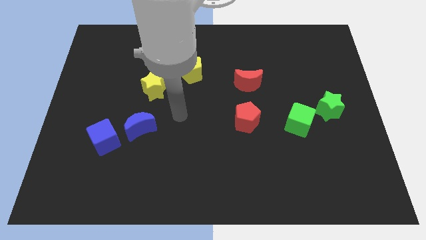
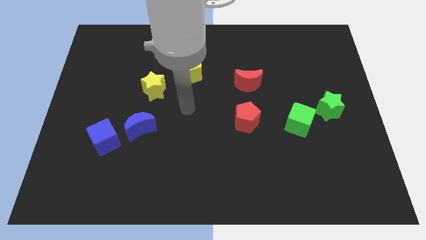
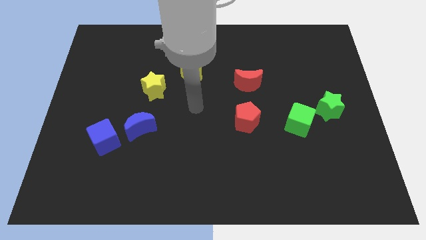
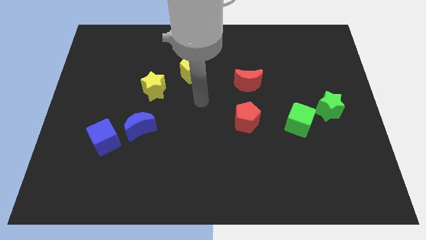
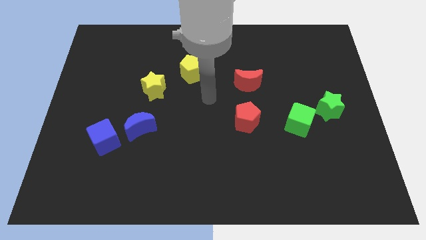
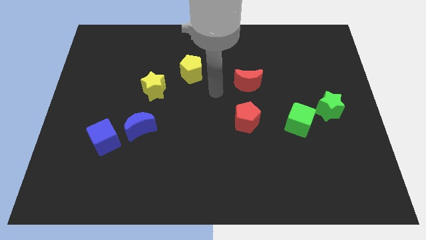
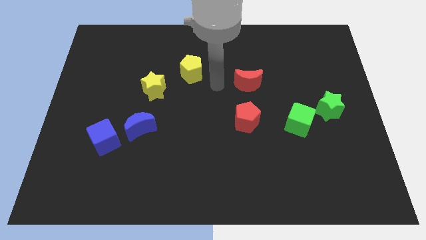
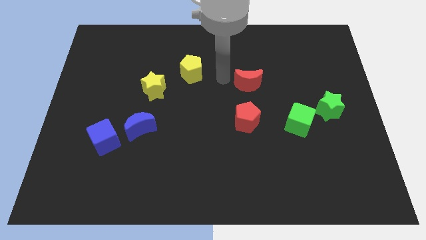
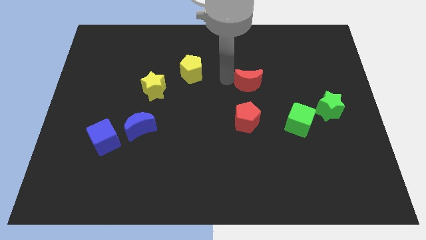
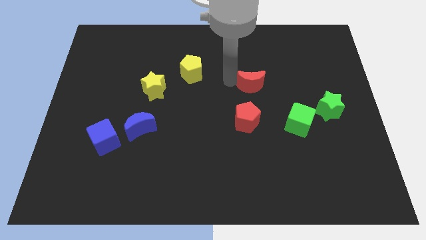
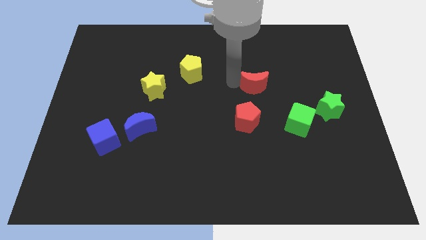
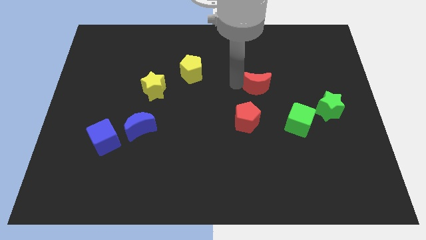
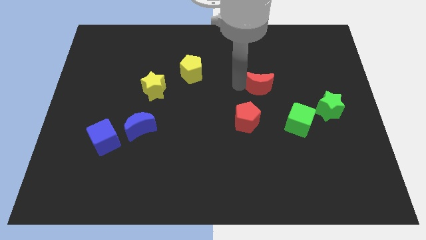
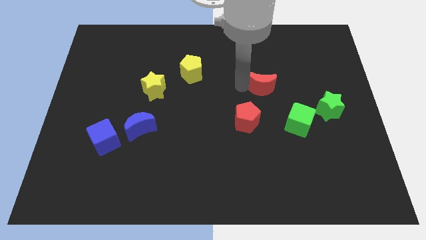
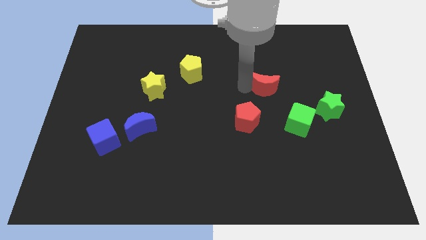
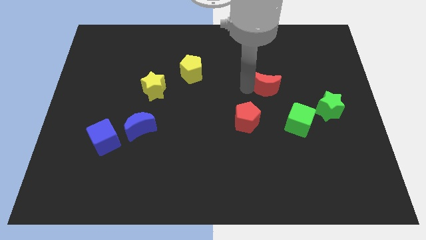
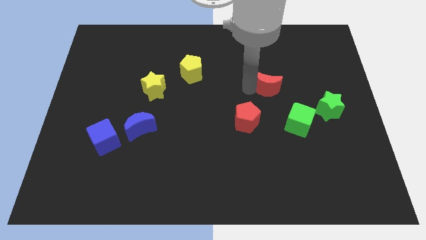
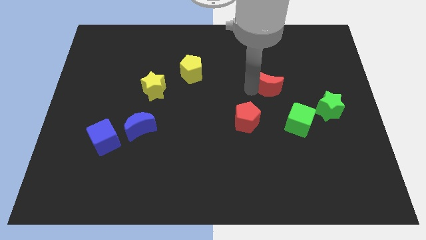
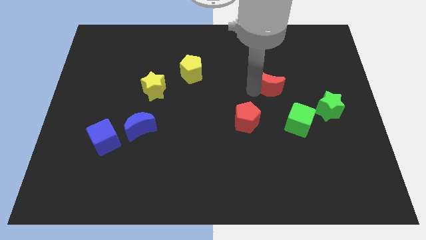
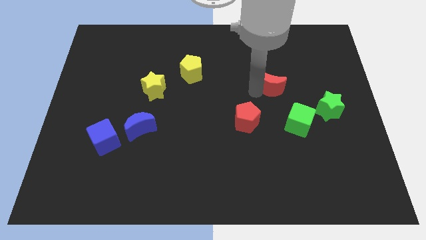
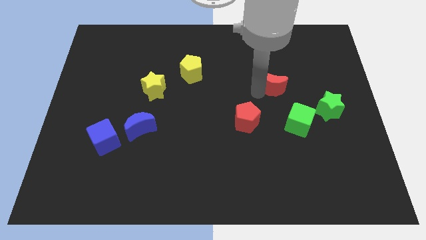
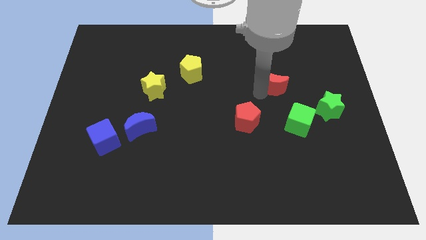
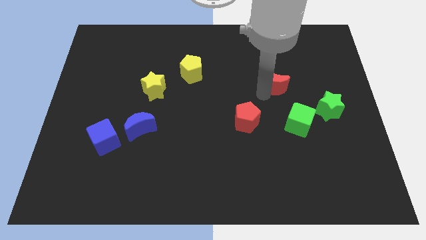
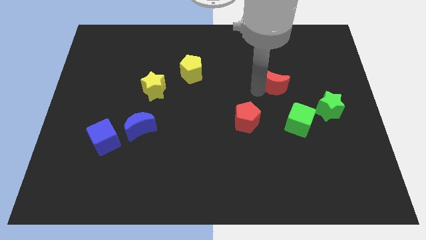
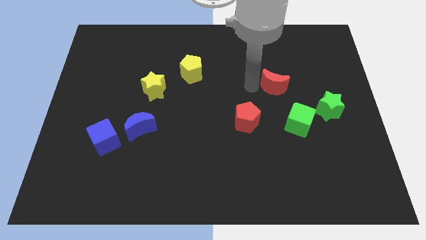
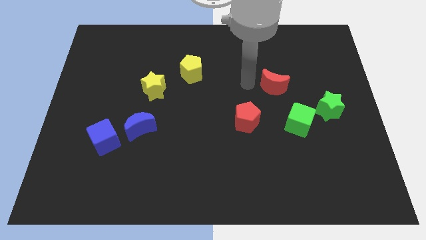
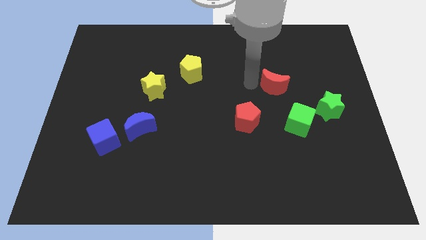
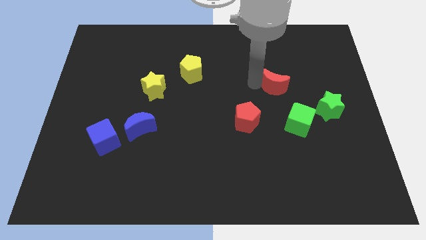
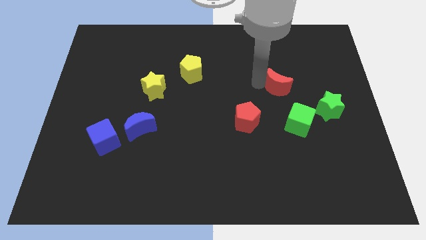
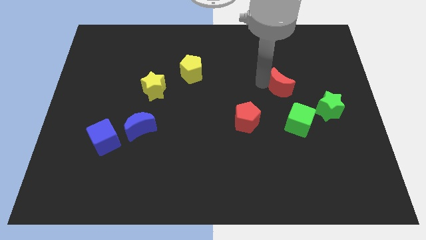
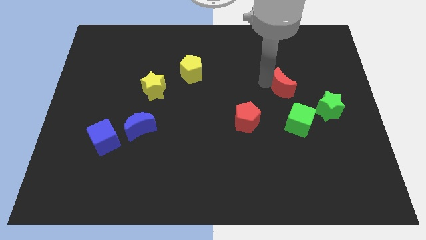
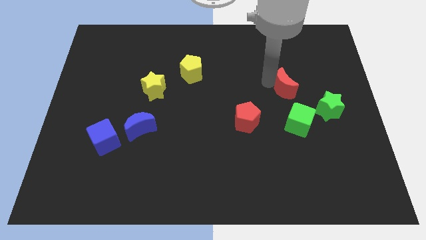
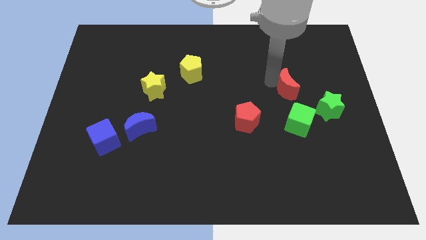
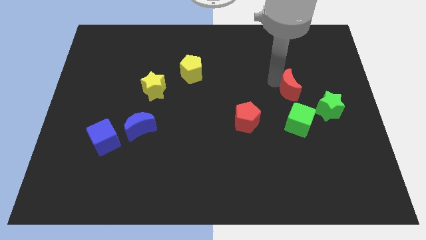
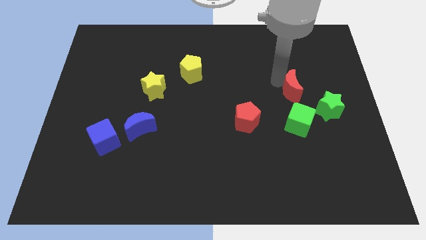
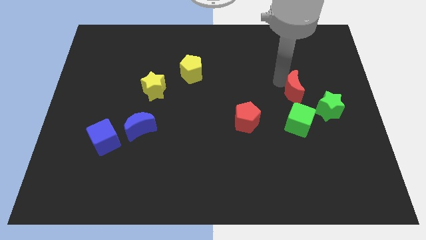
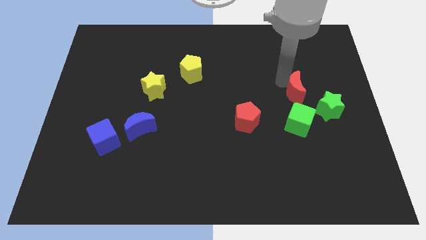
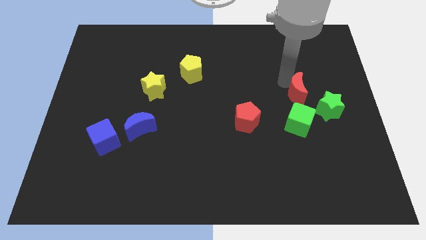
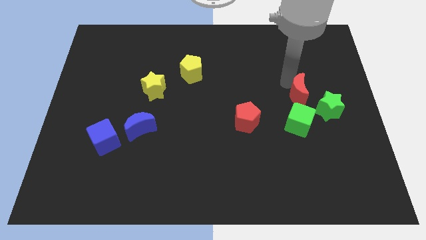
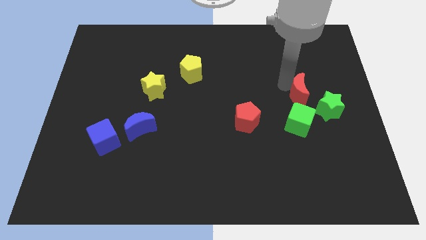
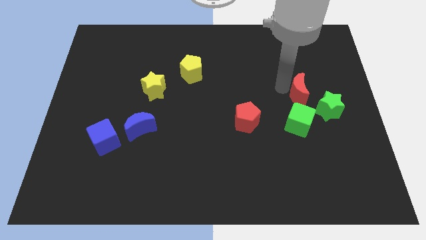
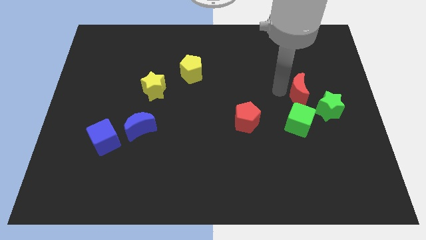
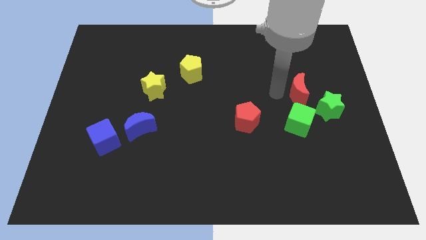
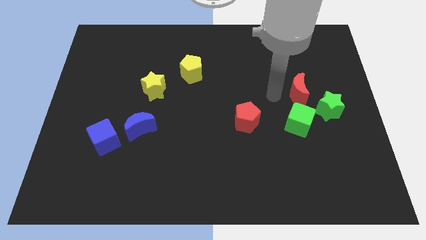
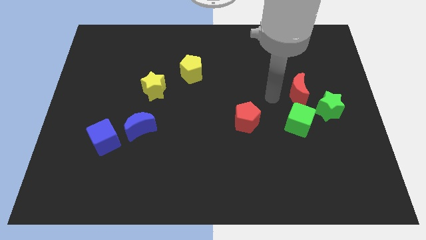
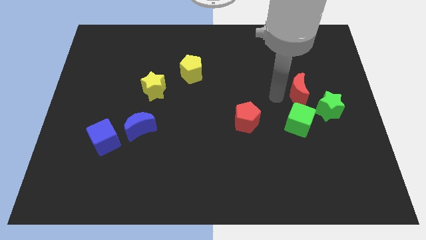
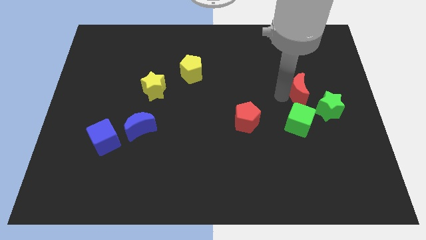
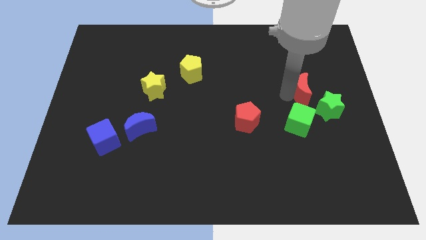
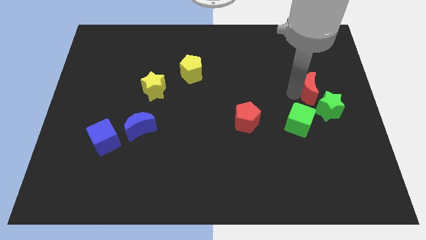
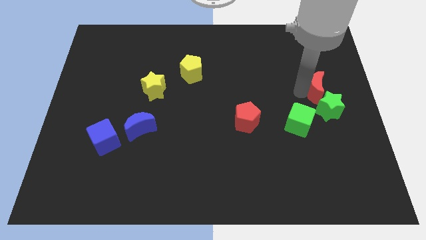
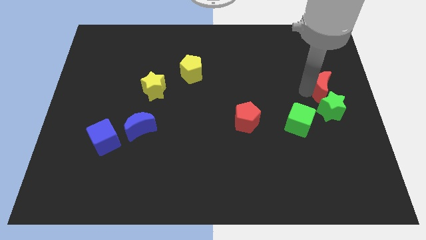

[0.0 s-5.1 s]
push the red moon to the right side

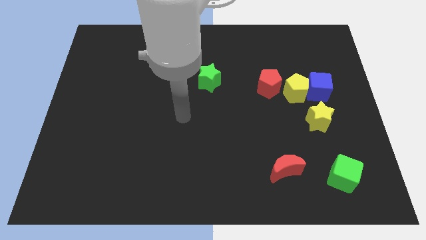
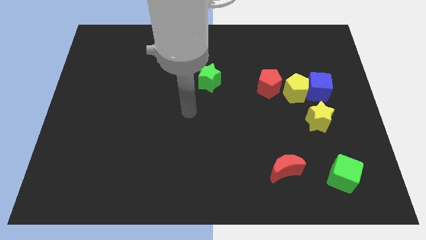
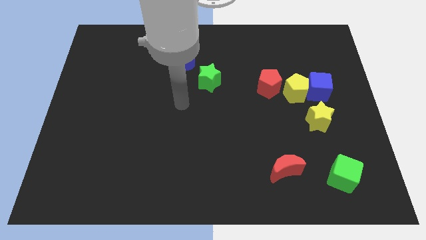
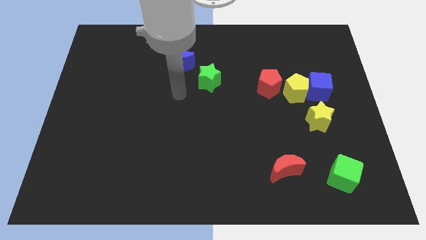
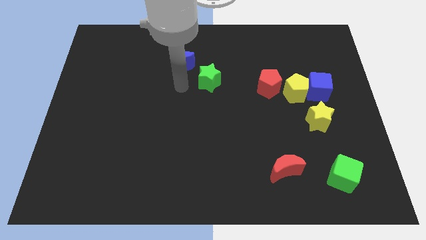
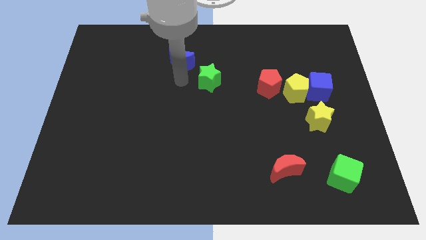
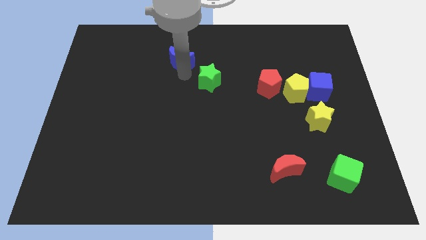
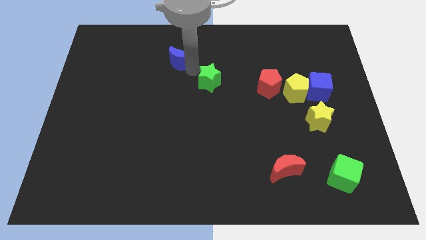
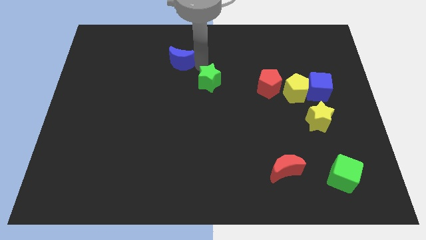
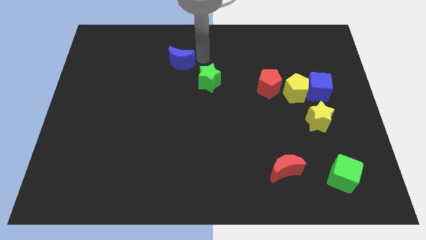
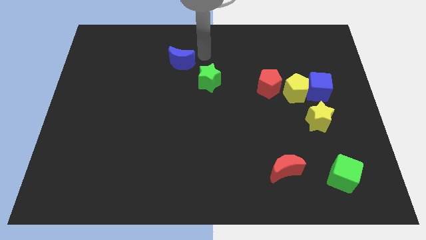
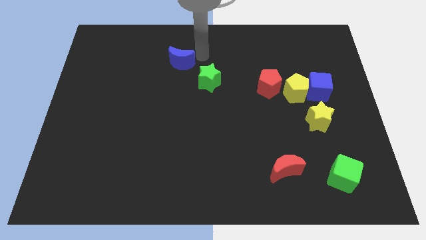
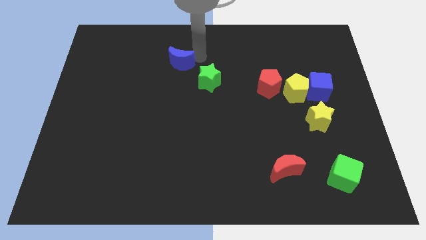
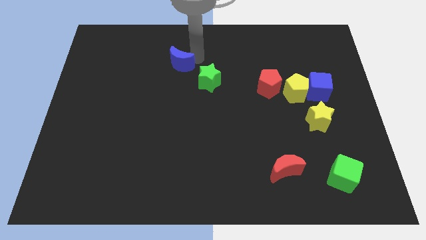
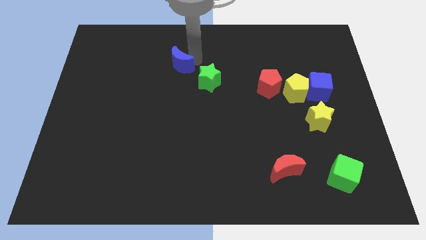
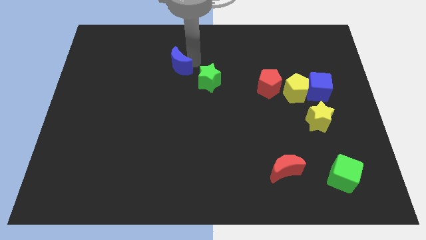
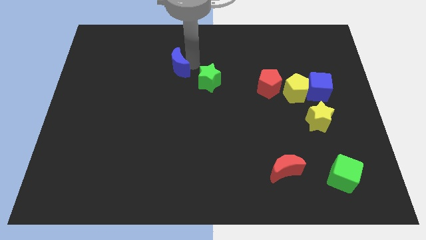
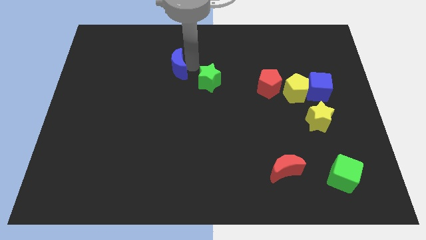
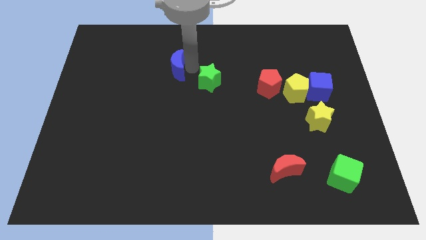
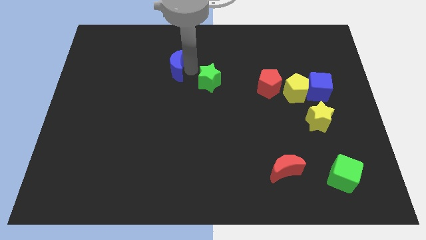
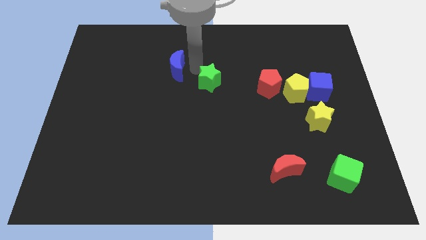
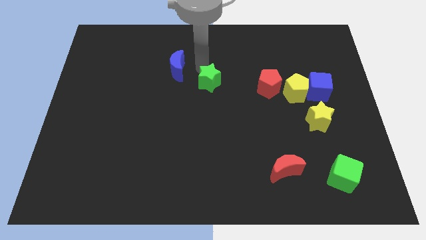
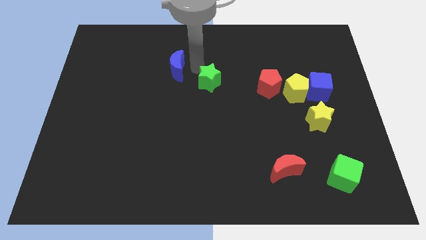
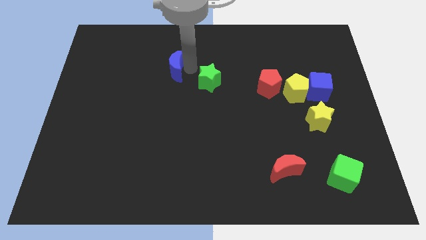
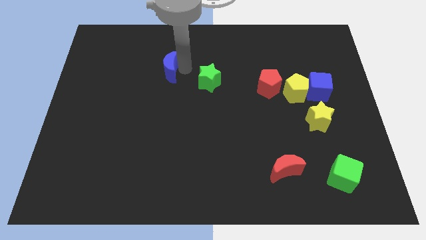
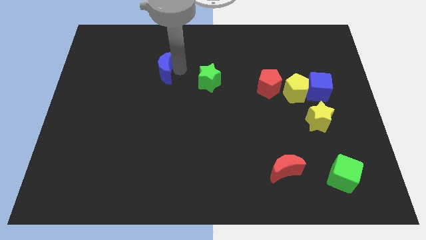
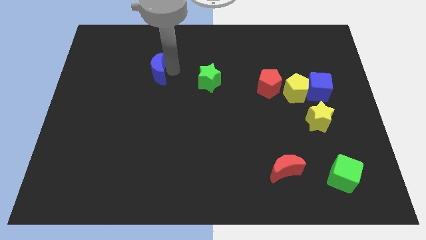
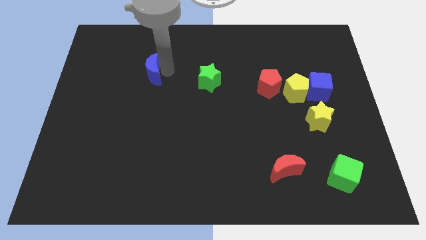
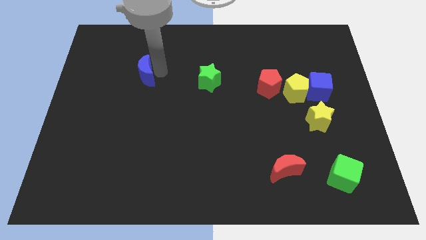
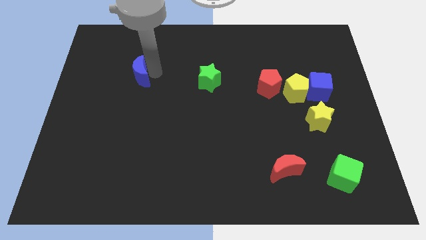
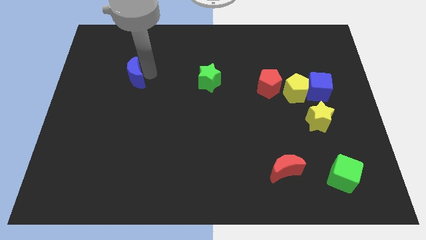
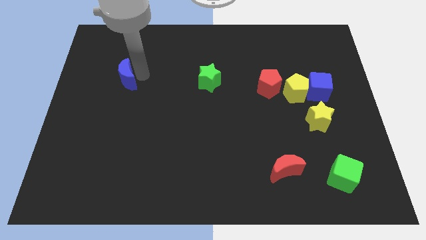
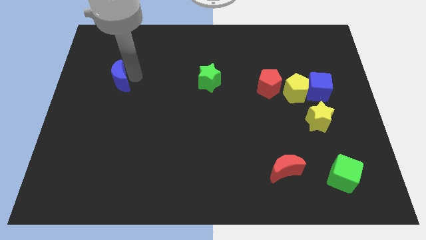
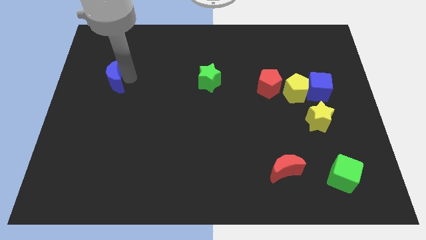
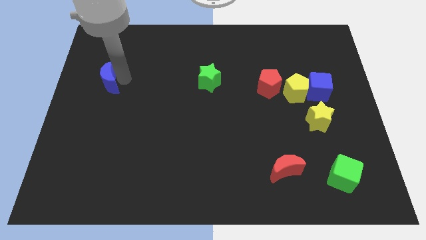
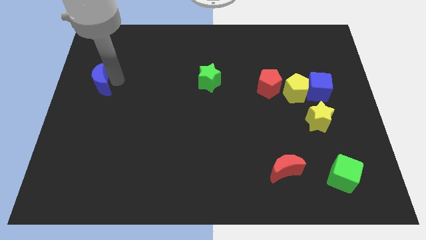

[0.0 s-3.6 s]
slide the blue moon to the left side of the board
